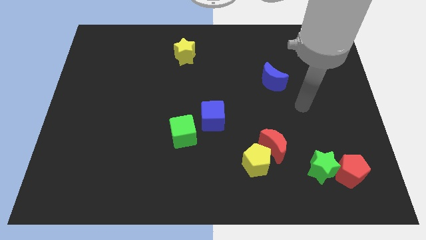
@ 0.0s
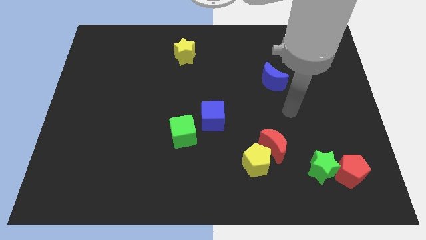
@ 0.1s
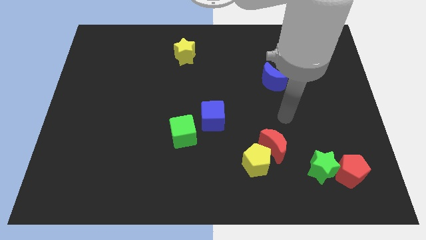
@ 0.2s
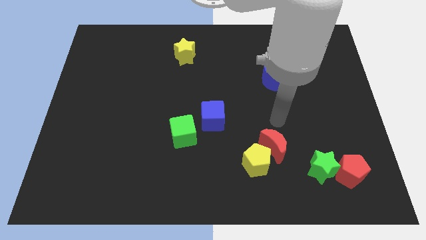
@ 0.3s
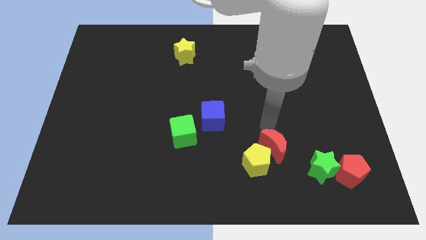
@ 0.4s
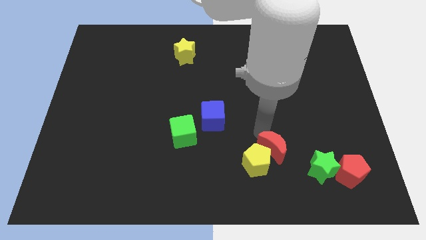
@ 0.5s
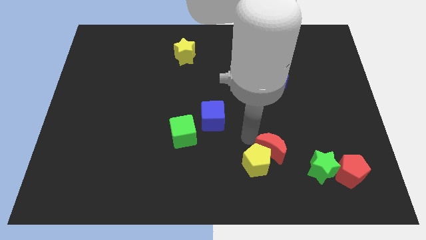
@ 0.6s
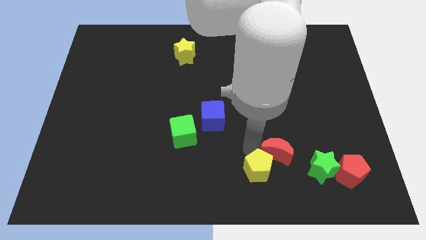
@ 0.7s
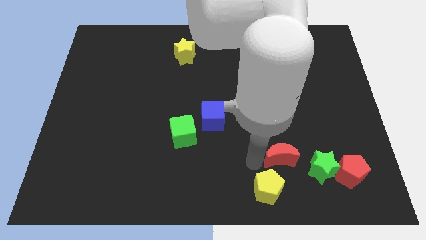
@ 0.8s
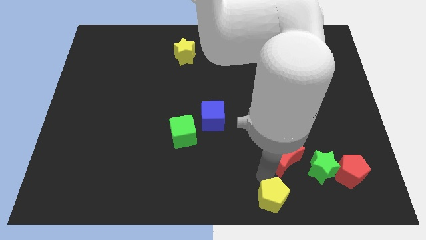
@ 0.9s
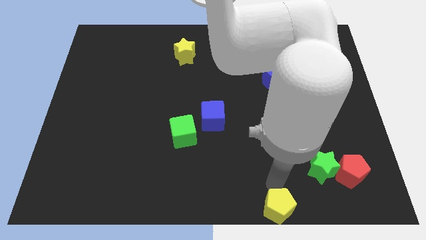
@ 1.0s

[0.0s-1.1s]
separate the red moon from the yellow pentagon

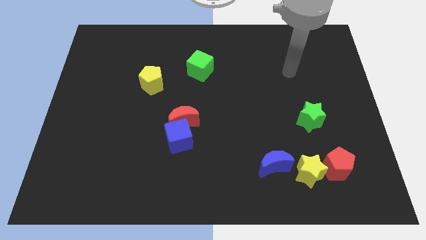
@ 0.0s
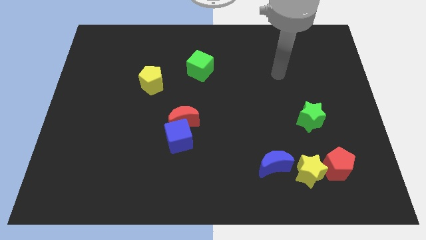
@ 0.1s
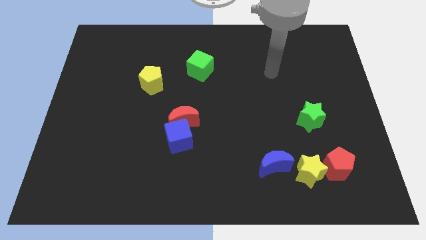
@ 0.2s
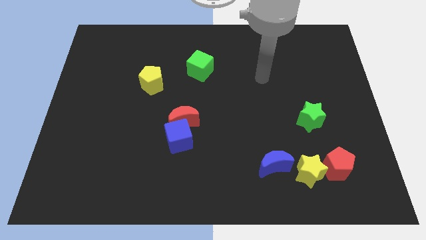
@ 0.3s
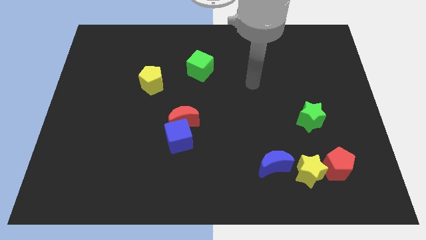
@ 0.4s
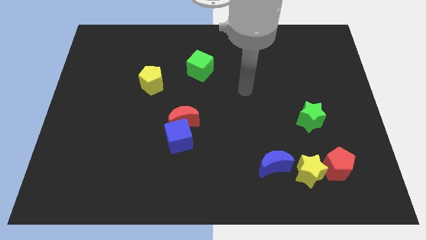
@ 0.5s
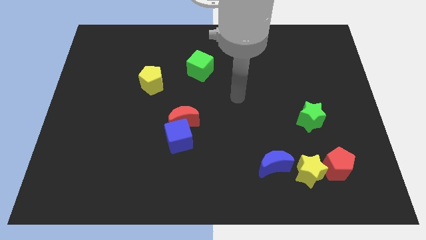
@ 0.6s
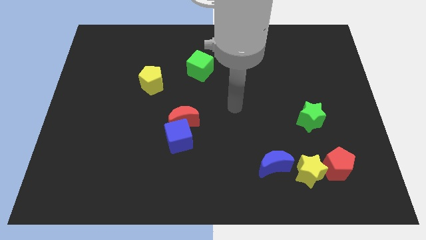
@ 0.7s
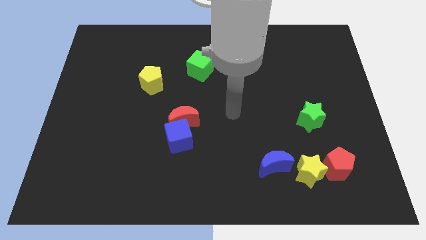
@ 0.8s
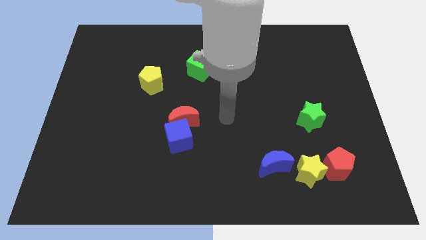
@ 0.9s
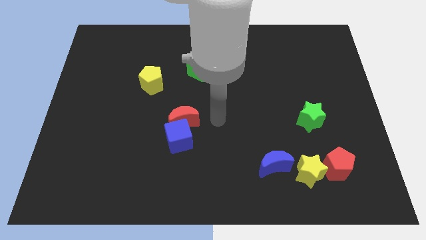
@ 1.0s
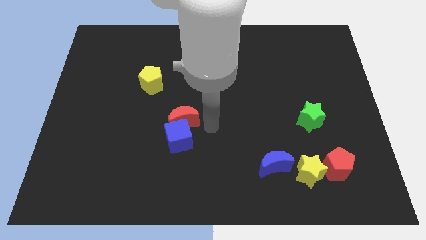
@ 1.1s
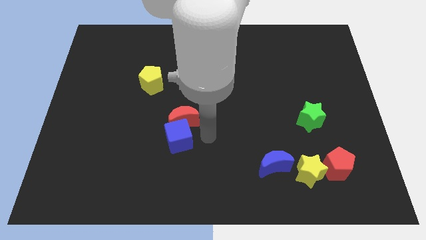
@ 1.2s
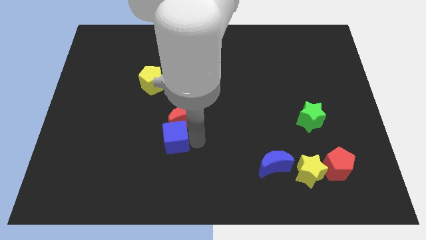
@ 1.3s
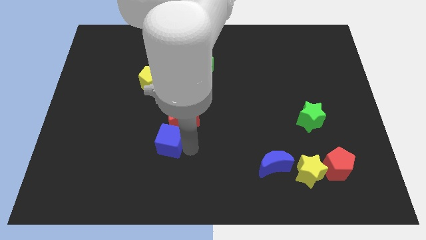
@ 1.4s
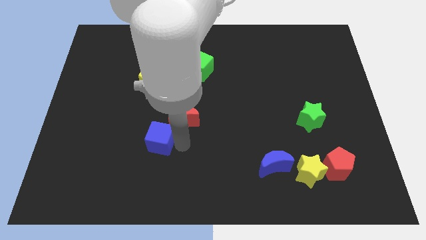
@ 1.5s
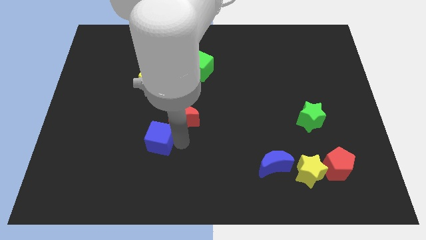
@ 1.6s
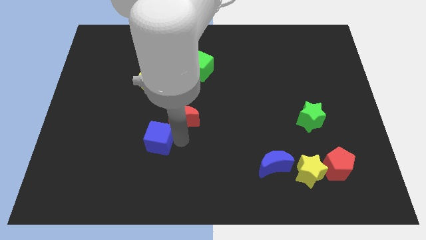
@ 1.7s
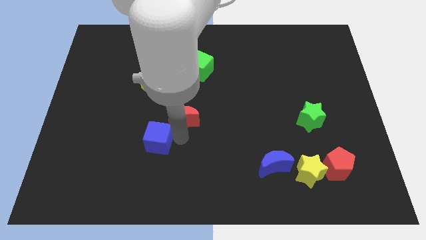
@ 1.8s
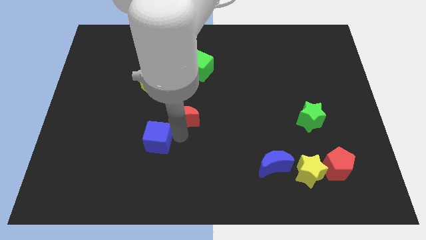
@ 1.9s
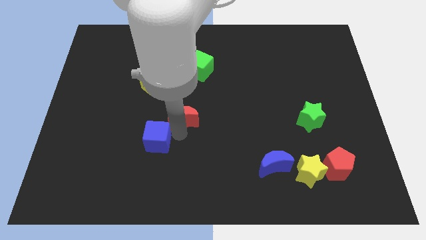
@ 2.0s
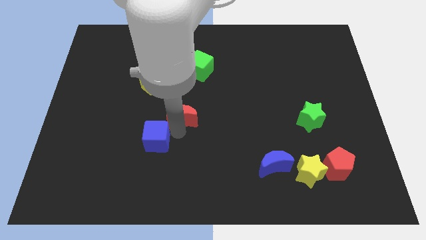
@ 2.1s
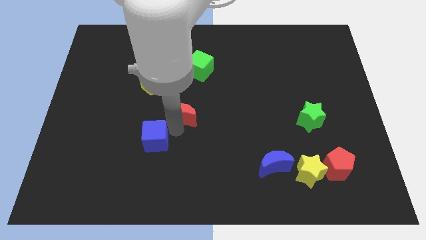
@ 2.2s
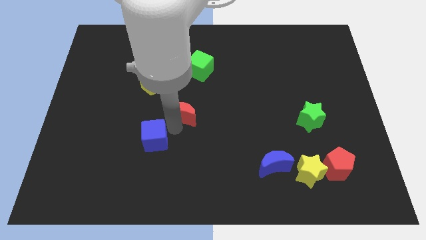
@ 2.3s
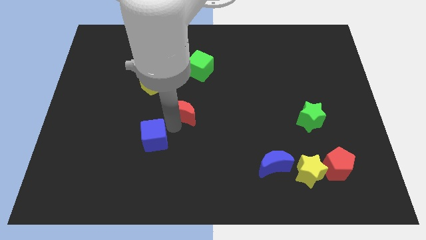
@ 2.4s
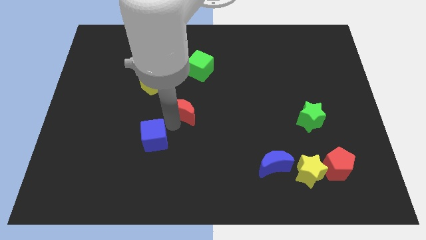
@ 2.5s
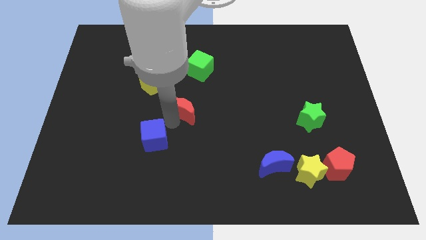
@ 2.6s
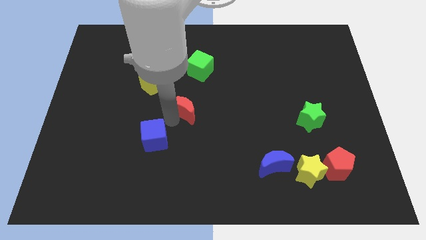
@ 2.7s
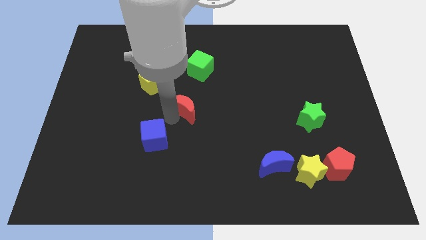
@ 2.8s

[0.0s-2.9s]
pull the red moon apart from the blue cube

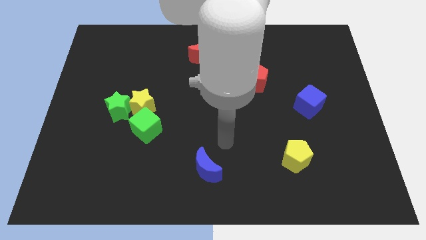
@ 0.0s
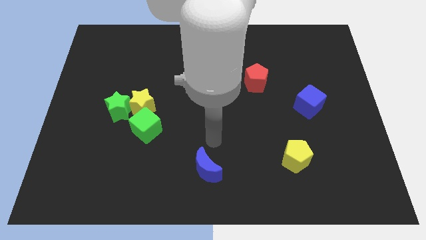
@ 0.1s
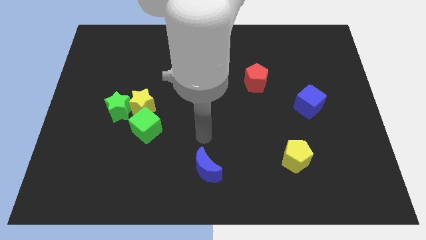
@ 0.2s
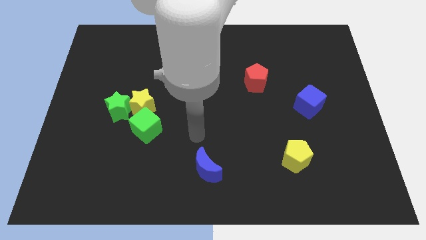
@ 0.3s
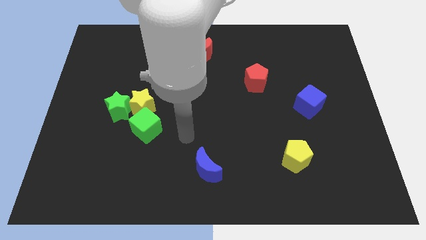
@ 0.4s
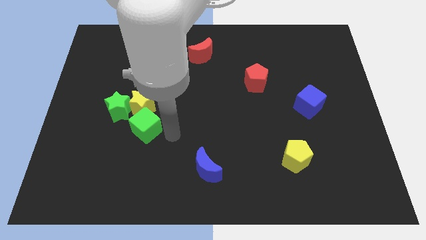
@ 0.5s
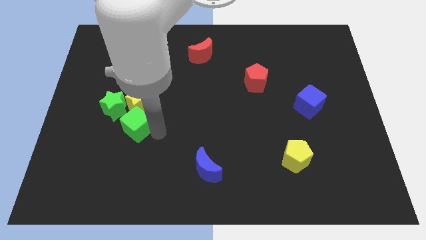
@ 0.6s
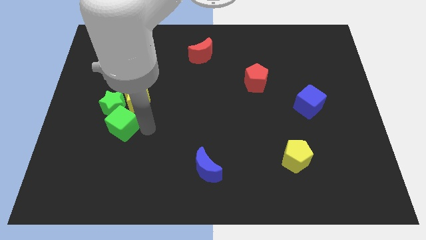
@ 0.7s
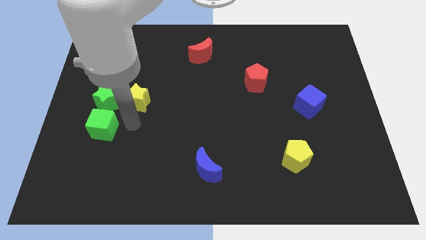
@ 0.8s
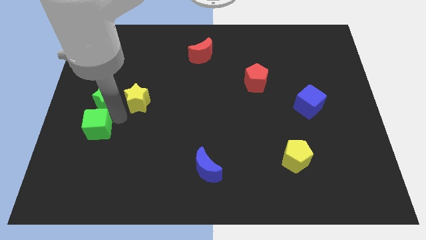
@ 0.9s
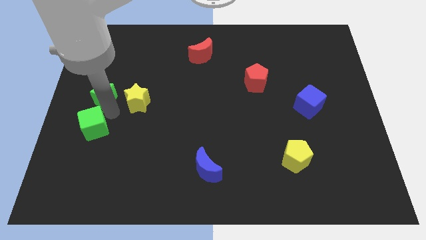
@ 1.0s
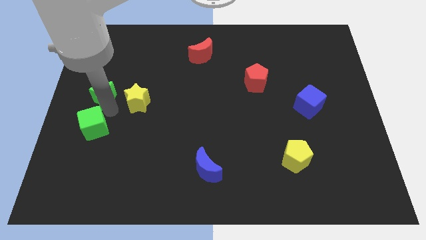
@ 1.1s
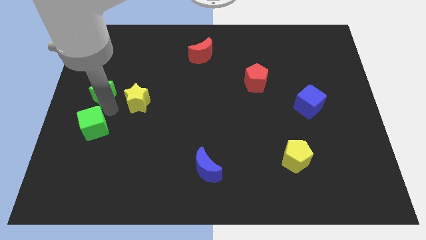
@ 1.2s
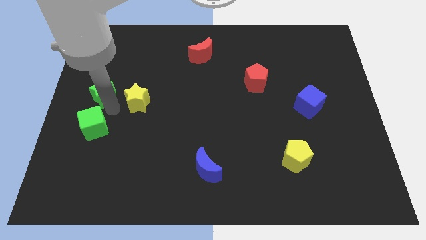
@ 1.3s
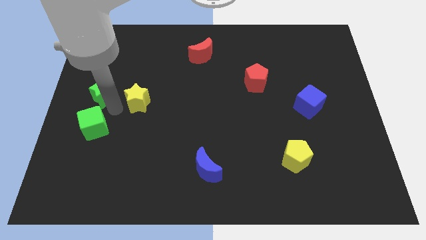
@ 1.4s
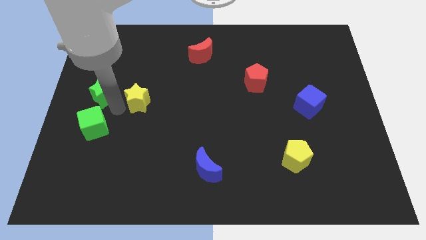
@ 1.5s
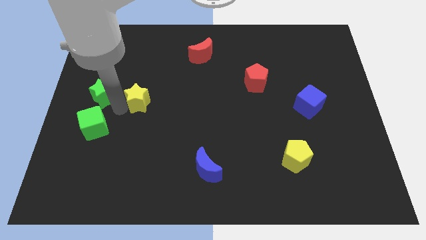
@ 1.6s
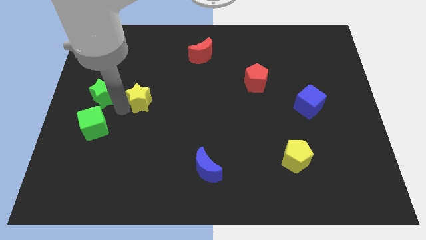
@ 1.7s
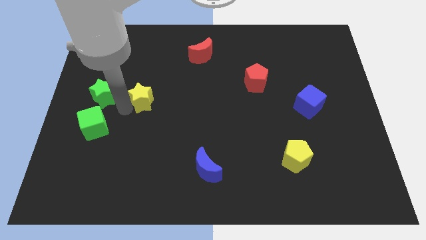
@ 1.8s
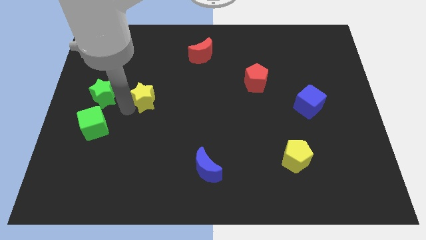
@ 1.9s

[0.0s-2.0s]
separate the yellow star from the green star and green cube

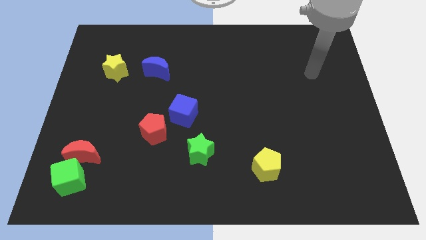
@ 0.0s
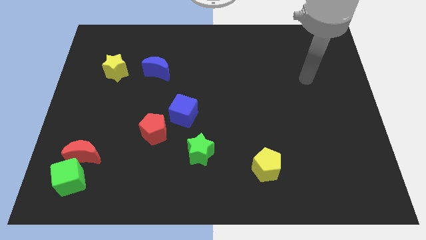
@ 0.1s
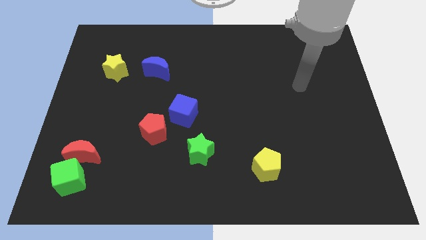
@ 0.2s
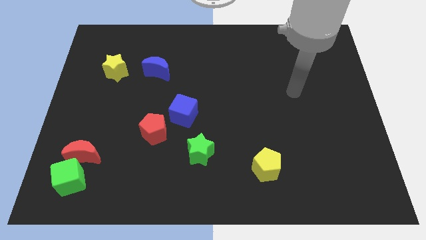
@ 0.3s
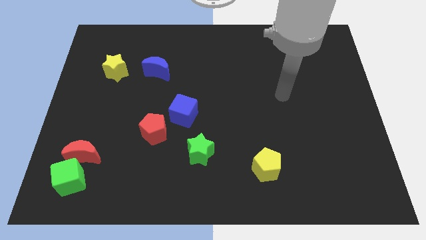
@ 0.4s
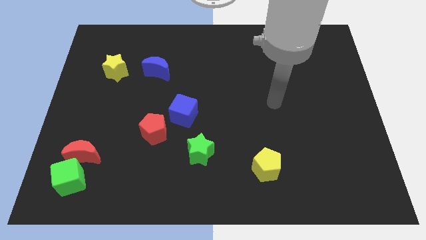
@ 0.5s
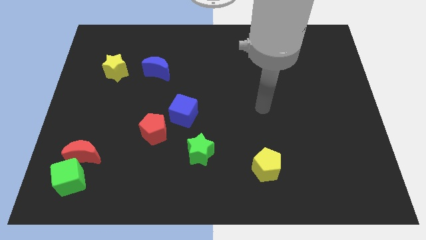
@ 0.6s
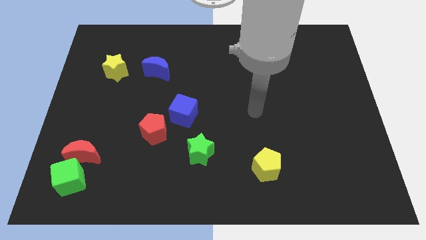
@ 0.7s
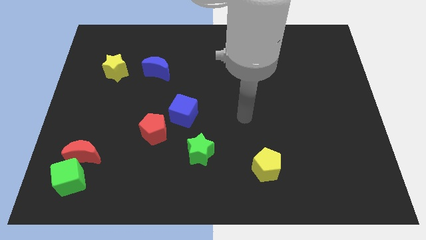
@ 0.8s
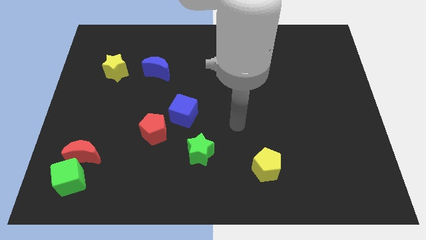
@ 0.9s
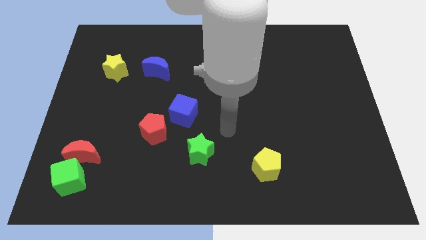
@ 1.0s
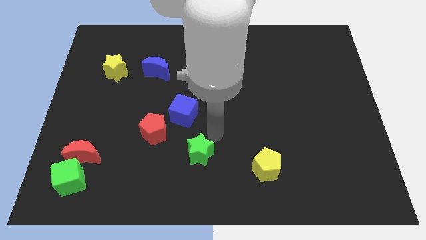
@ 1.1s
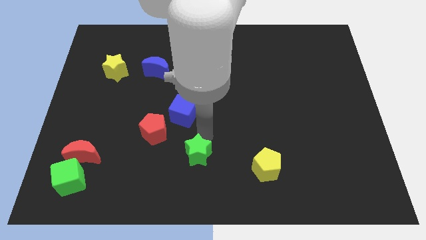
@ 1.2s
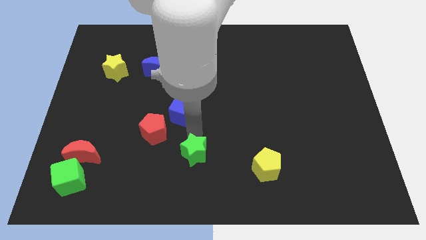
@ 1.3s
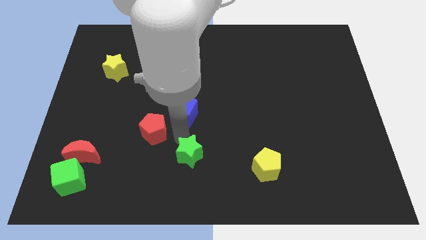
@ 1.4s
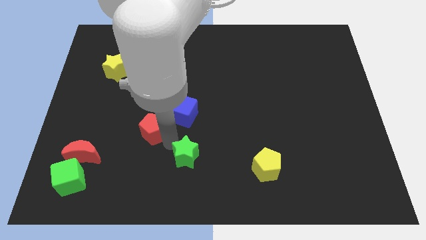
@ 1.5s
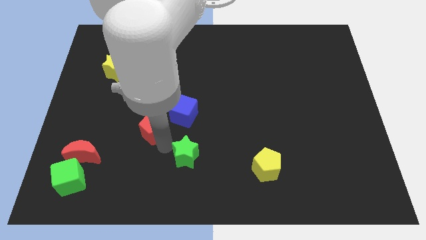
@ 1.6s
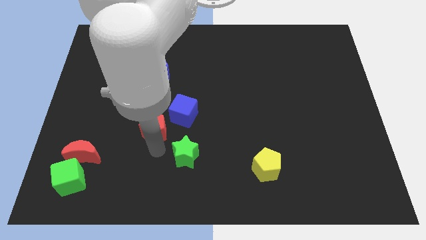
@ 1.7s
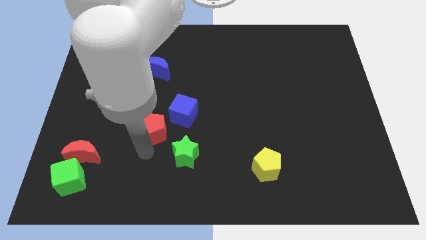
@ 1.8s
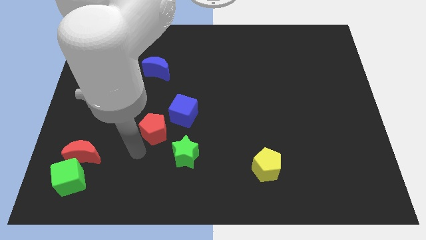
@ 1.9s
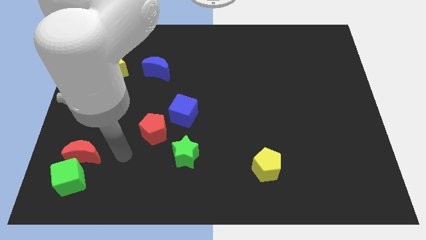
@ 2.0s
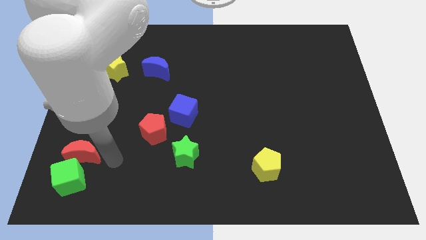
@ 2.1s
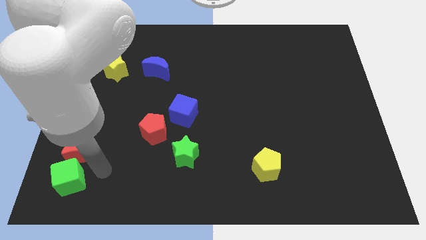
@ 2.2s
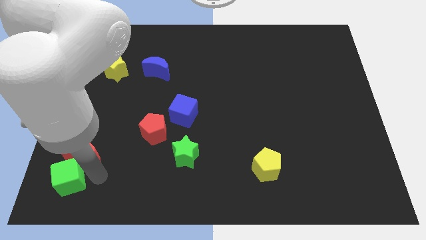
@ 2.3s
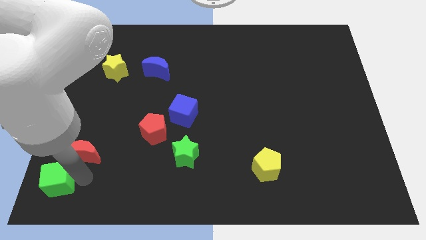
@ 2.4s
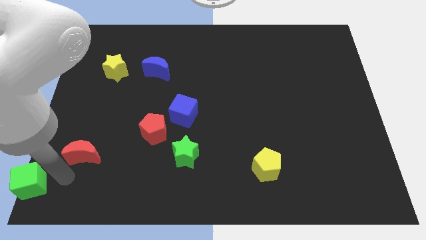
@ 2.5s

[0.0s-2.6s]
pull the red moon apart from the green cube

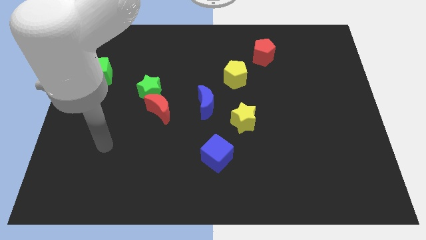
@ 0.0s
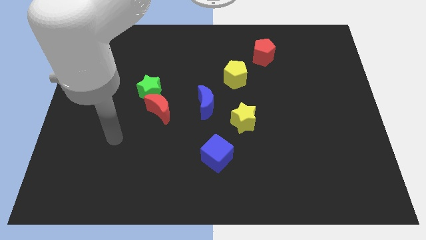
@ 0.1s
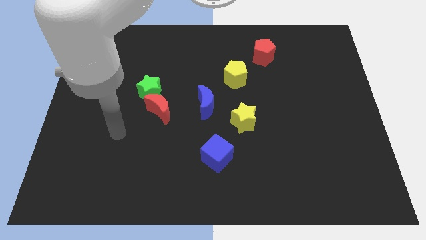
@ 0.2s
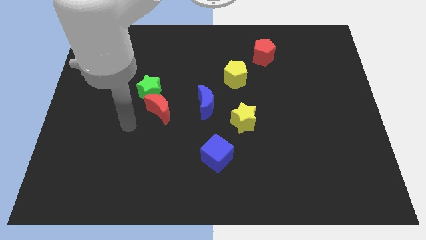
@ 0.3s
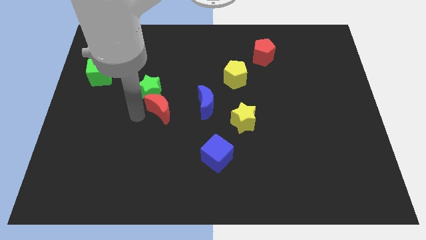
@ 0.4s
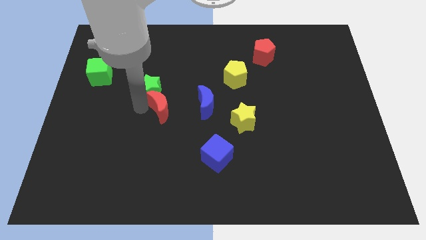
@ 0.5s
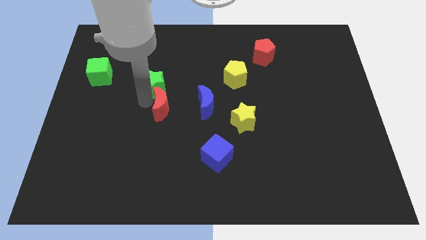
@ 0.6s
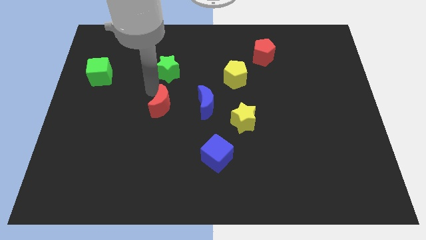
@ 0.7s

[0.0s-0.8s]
separate the red moon from the green star
